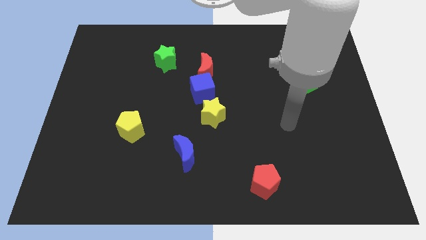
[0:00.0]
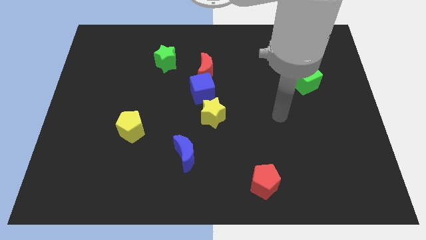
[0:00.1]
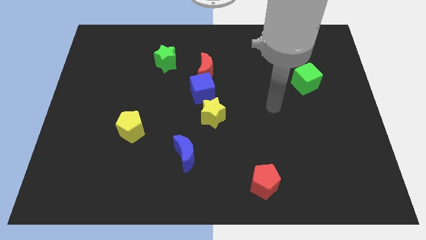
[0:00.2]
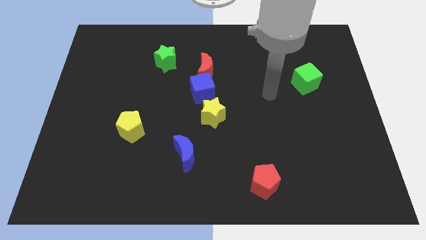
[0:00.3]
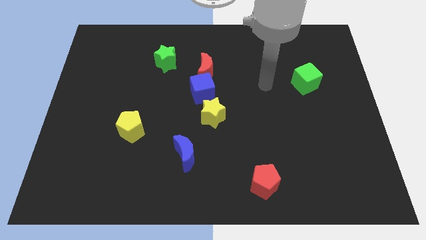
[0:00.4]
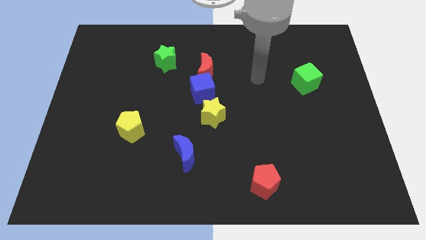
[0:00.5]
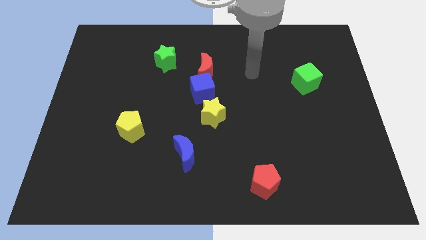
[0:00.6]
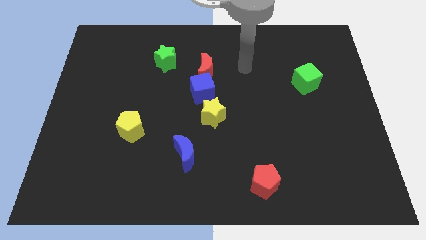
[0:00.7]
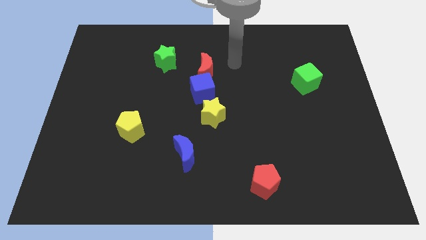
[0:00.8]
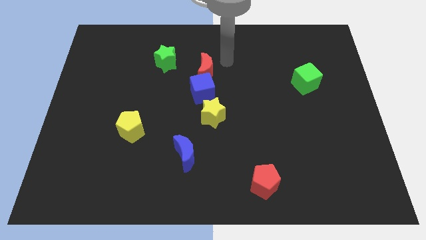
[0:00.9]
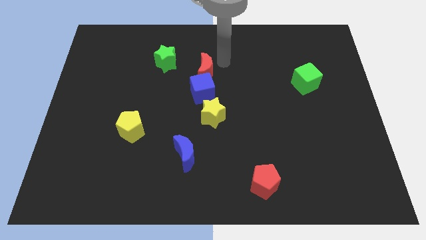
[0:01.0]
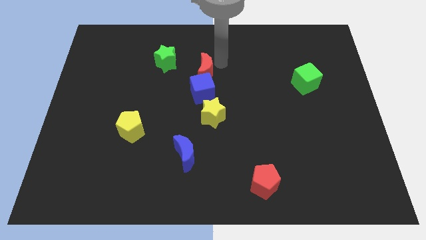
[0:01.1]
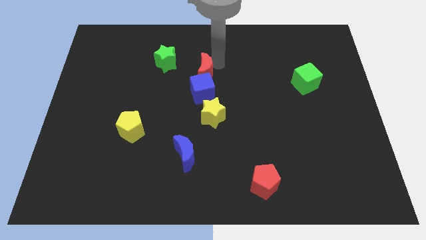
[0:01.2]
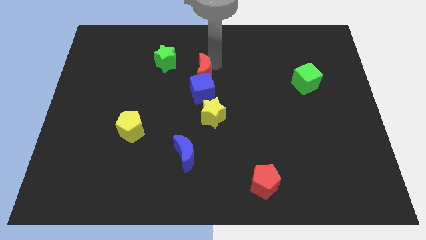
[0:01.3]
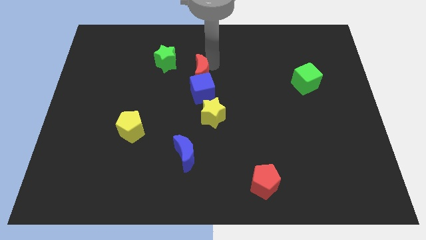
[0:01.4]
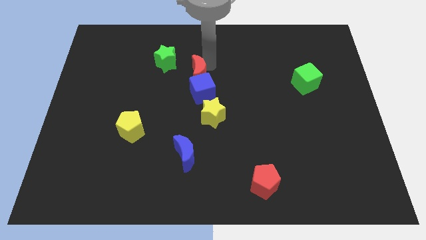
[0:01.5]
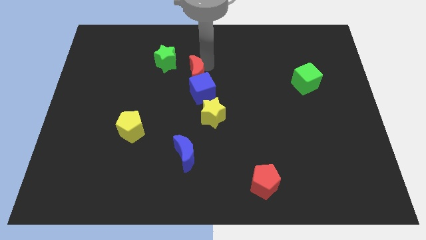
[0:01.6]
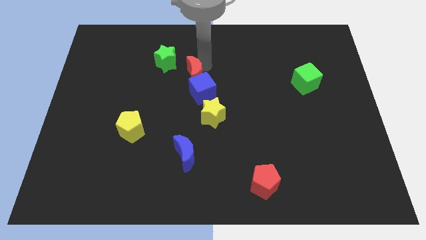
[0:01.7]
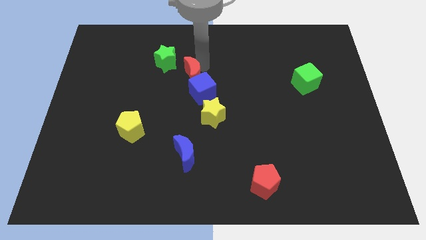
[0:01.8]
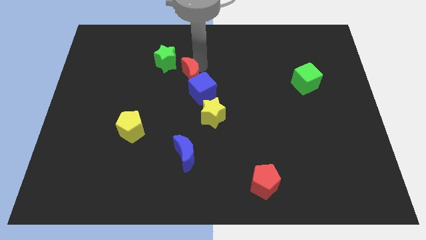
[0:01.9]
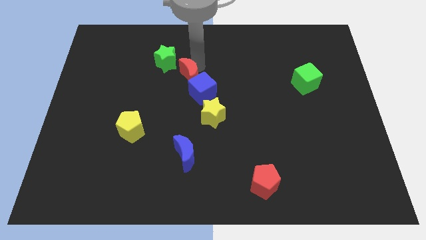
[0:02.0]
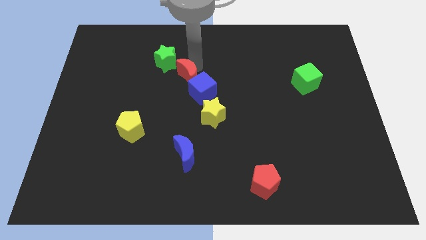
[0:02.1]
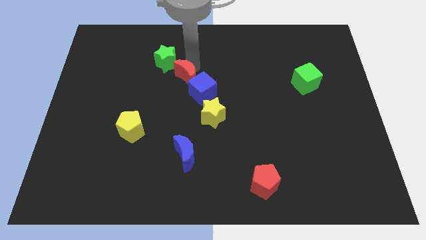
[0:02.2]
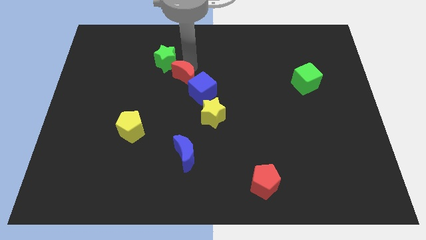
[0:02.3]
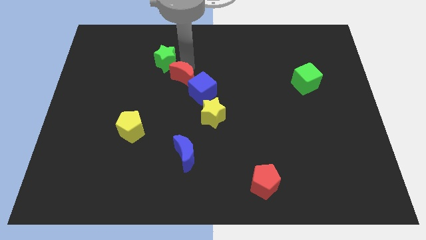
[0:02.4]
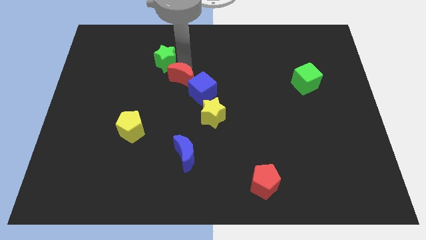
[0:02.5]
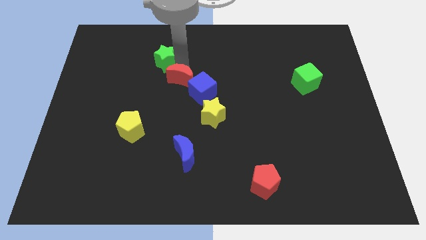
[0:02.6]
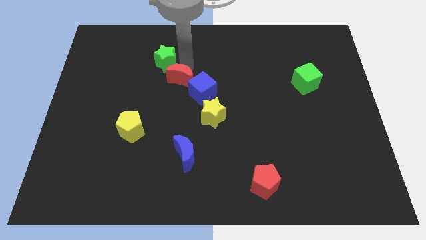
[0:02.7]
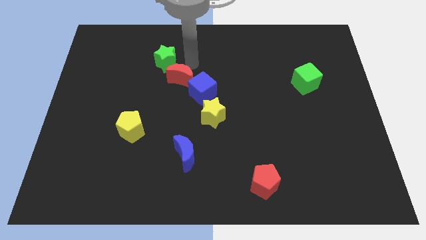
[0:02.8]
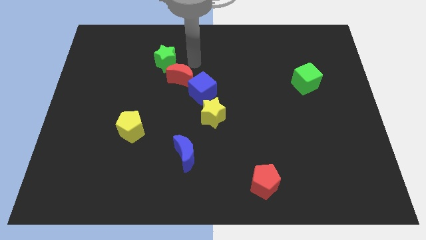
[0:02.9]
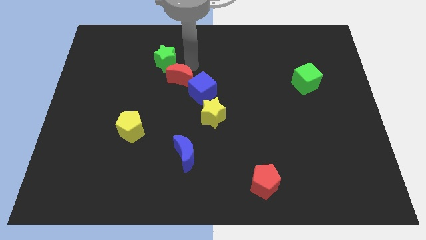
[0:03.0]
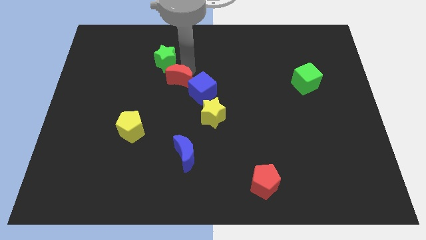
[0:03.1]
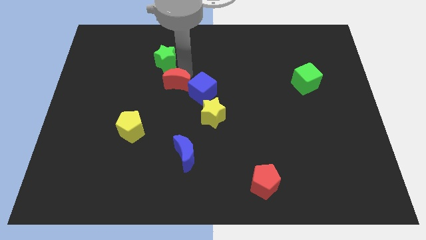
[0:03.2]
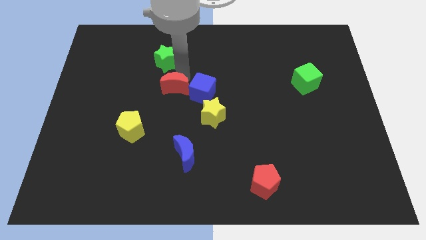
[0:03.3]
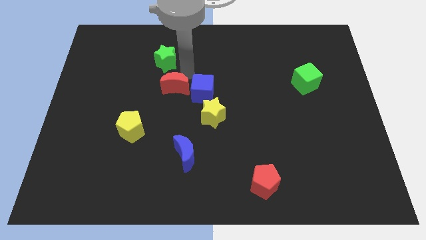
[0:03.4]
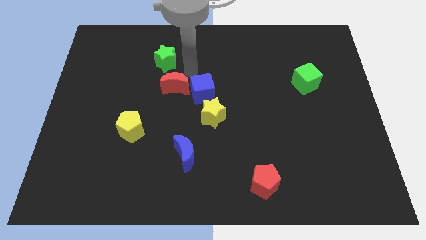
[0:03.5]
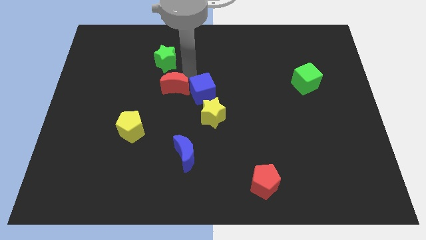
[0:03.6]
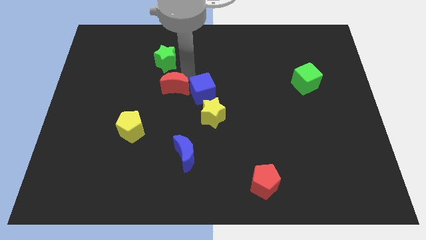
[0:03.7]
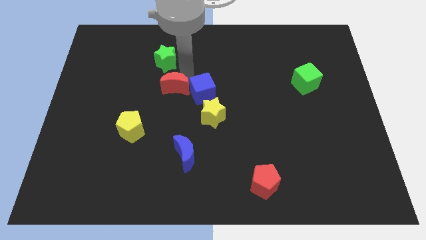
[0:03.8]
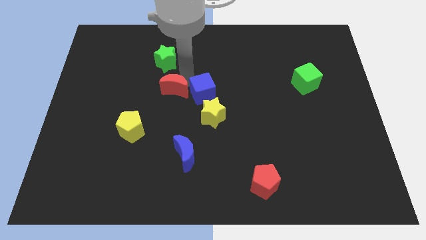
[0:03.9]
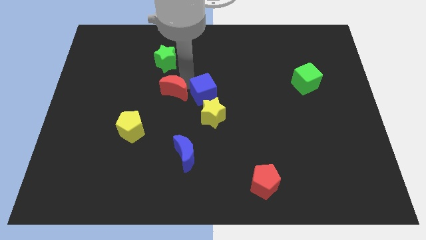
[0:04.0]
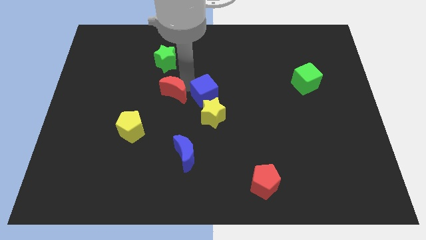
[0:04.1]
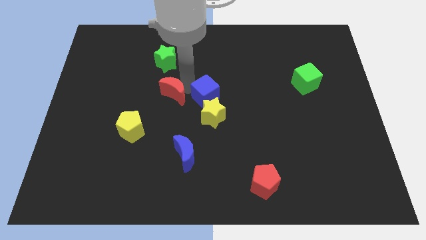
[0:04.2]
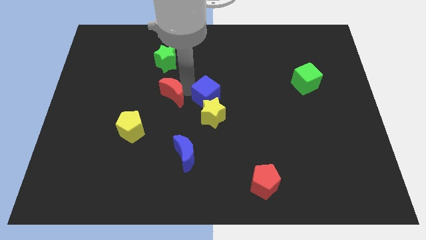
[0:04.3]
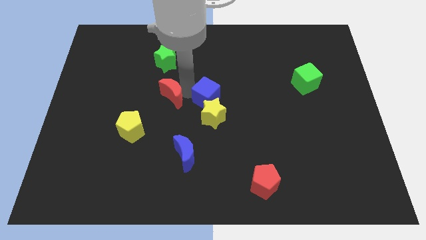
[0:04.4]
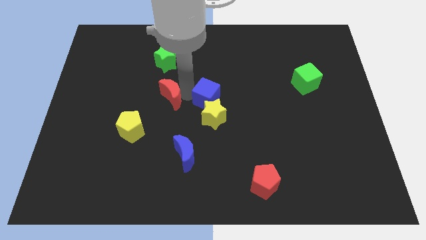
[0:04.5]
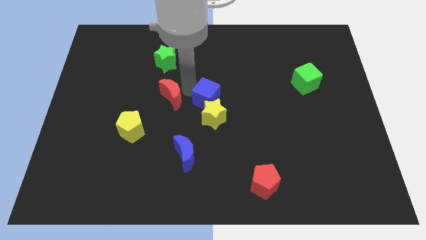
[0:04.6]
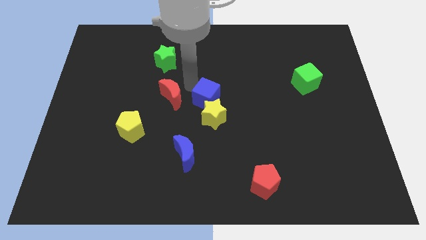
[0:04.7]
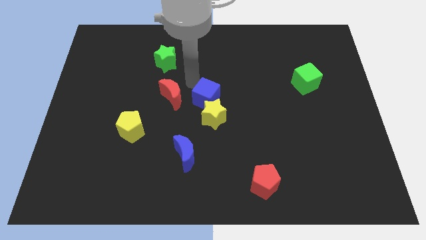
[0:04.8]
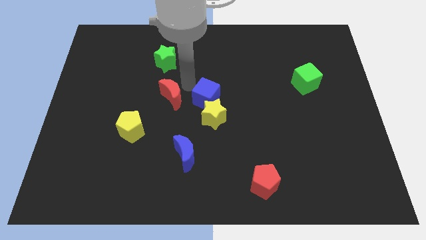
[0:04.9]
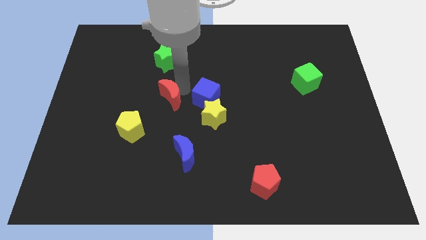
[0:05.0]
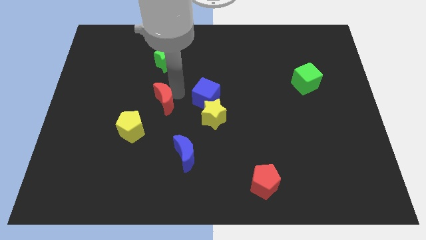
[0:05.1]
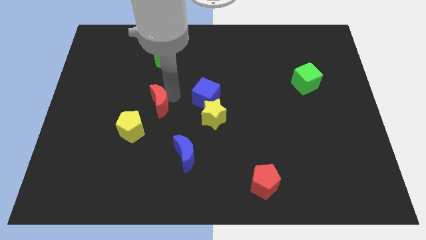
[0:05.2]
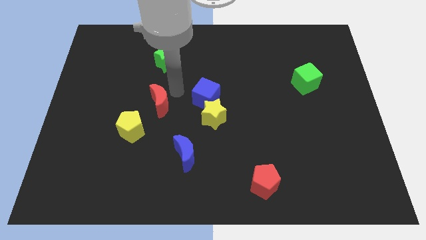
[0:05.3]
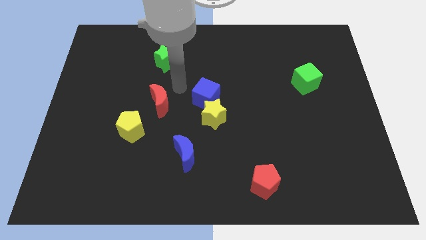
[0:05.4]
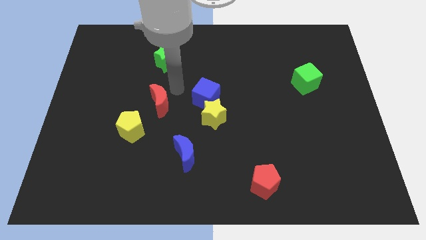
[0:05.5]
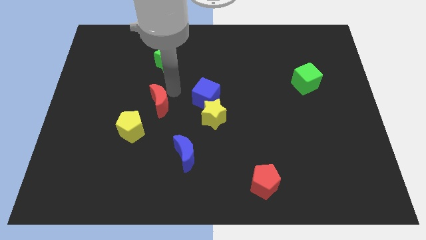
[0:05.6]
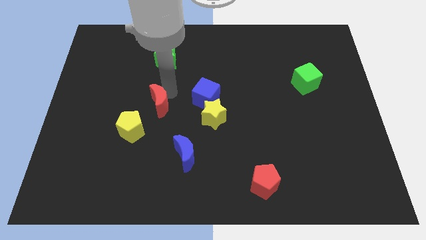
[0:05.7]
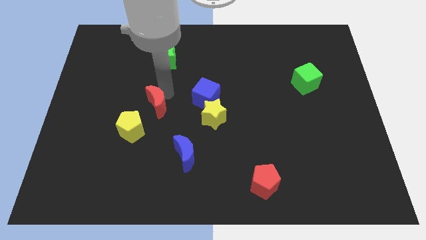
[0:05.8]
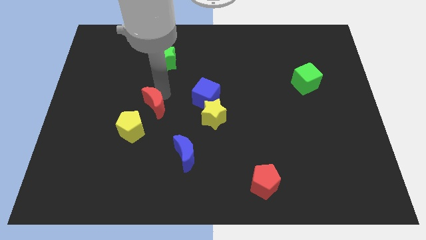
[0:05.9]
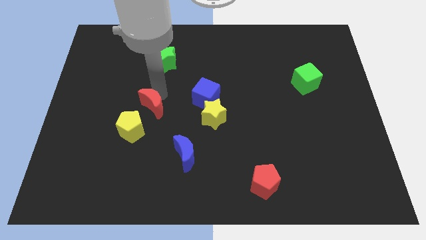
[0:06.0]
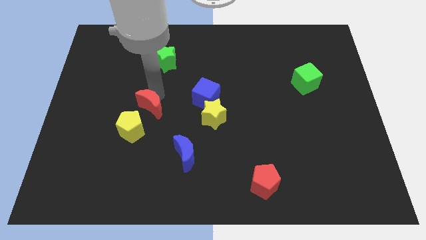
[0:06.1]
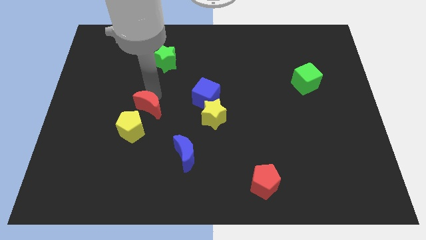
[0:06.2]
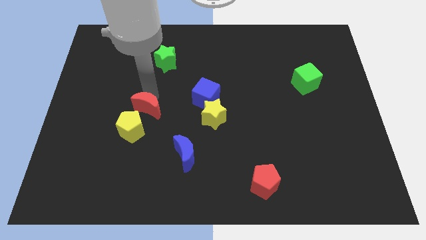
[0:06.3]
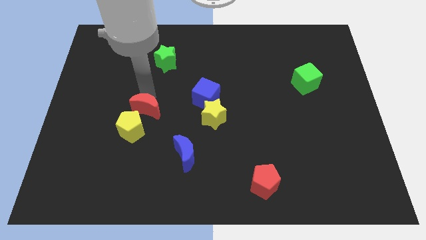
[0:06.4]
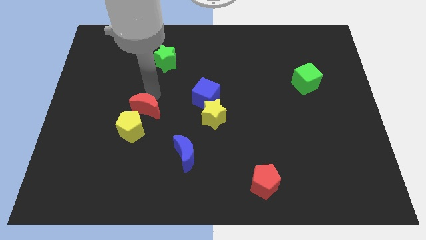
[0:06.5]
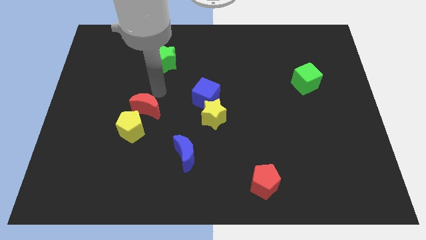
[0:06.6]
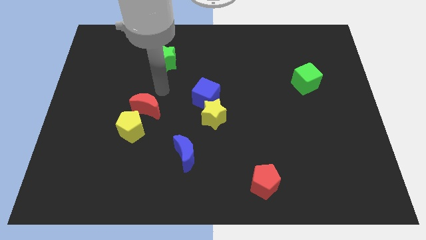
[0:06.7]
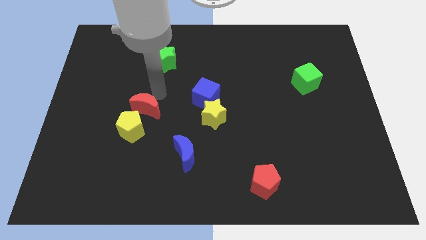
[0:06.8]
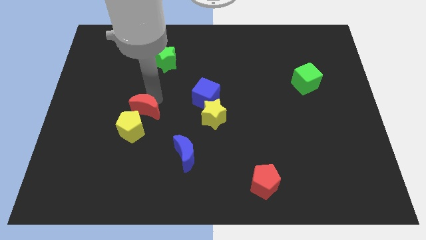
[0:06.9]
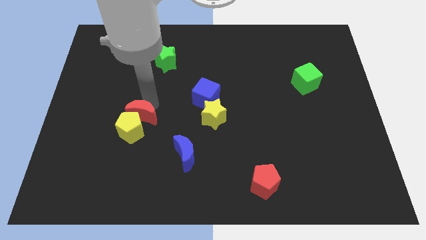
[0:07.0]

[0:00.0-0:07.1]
slide the red moon to the yellow pentagon
